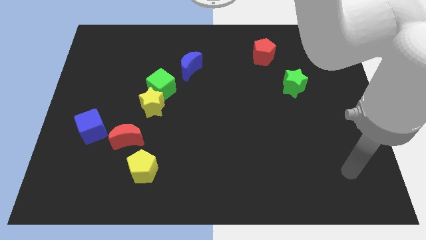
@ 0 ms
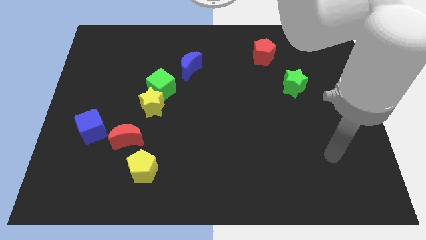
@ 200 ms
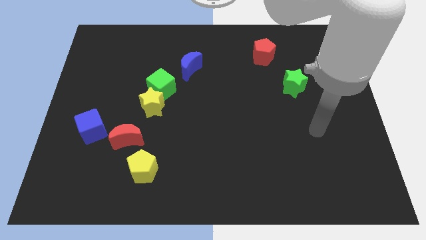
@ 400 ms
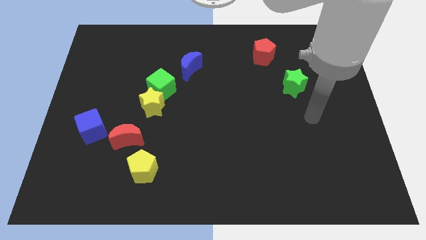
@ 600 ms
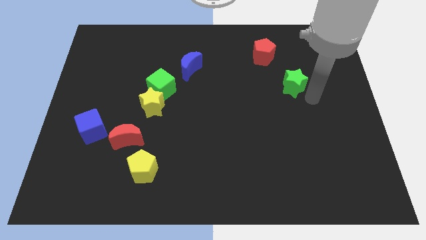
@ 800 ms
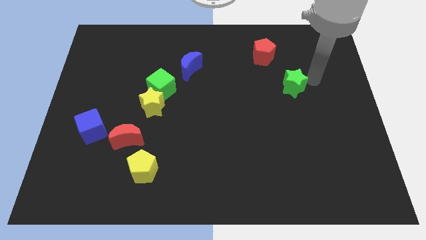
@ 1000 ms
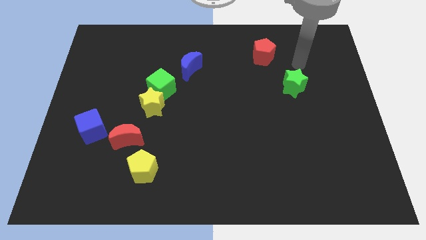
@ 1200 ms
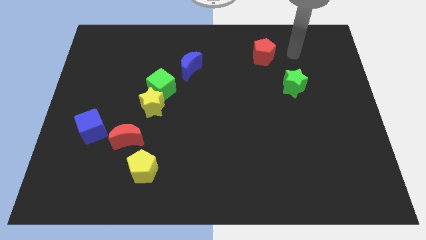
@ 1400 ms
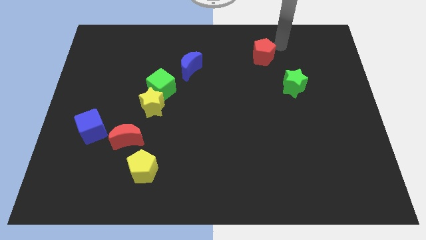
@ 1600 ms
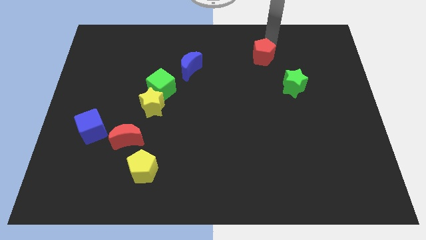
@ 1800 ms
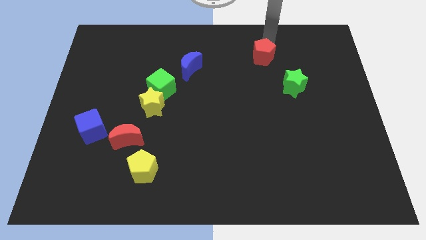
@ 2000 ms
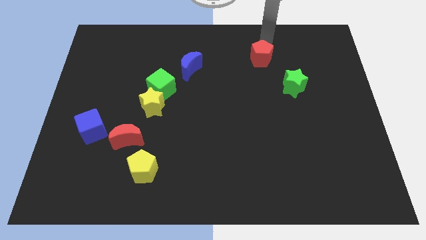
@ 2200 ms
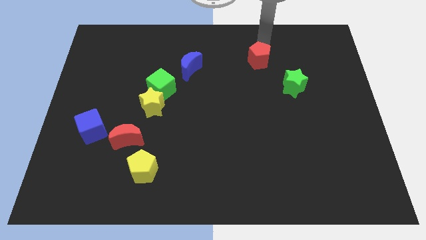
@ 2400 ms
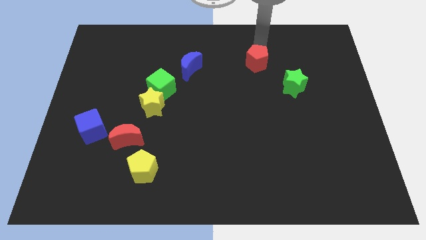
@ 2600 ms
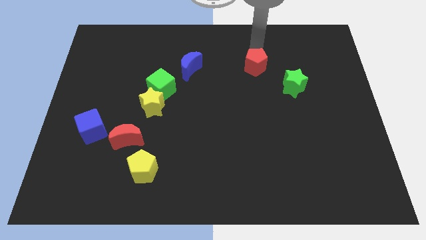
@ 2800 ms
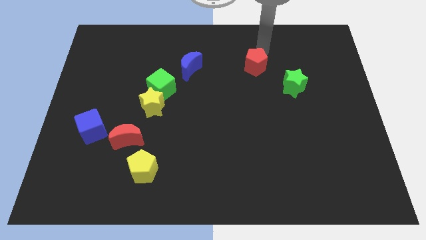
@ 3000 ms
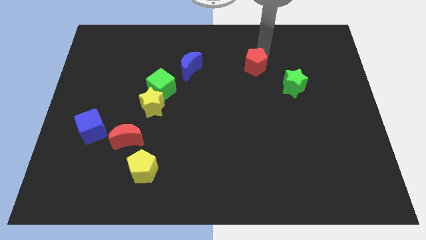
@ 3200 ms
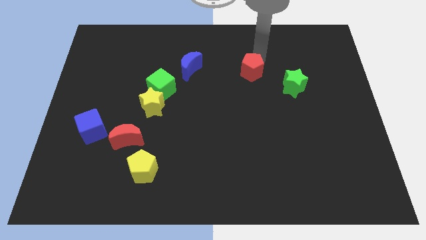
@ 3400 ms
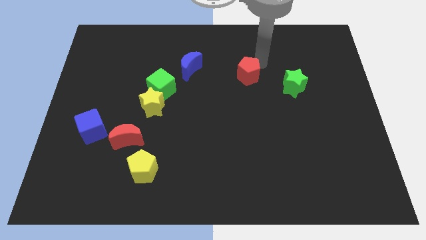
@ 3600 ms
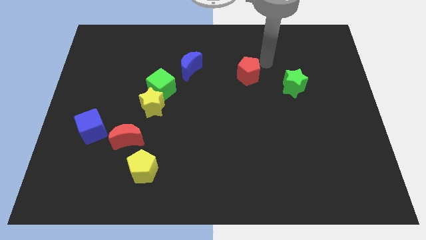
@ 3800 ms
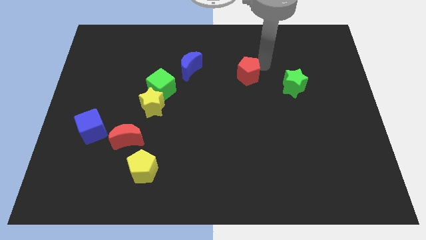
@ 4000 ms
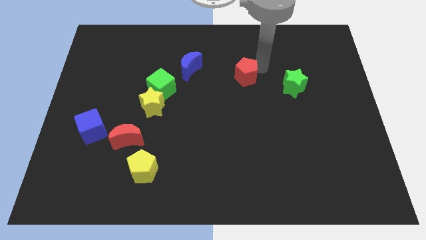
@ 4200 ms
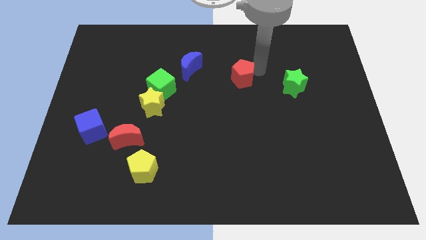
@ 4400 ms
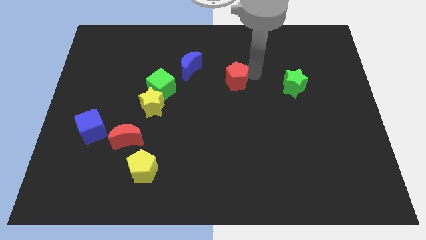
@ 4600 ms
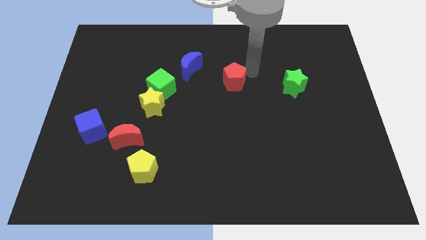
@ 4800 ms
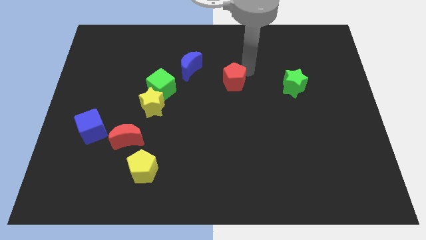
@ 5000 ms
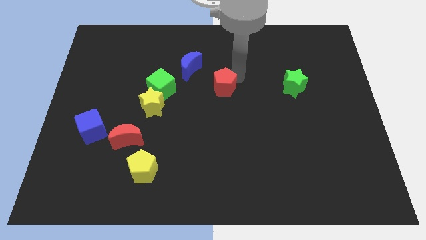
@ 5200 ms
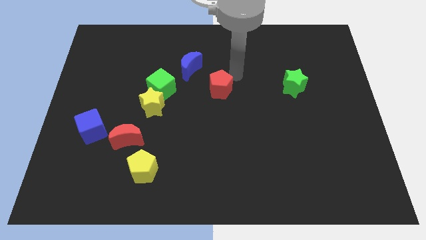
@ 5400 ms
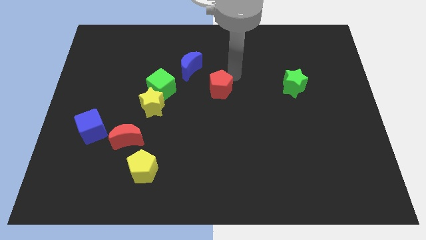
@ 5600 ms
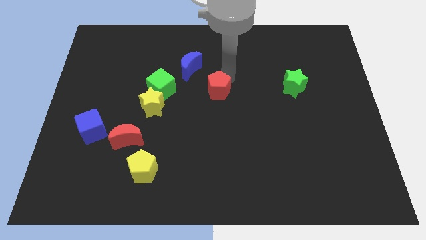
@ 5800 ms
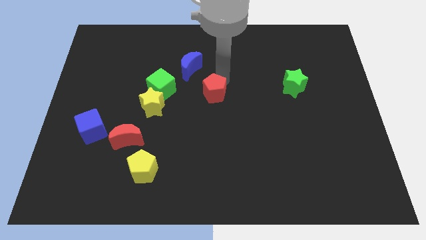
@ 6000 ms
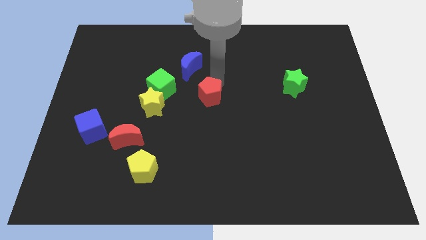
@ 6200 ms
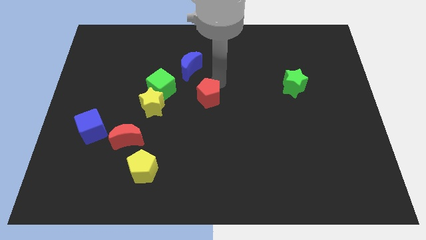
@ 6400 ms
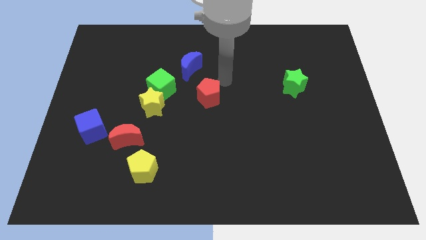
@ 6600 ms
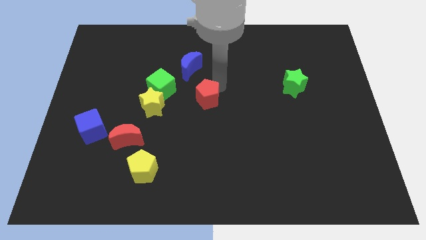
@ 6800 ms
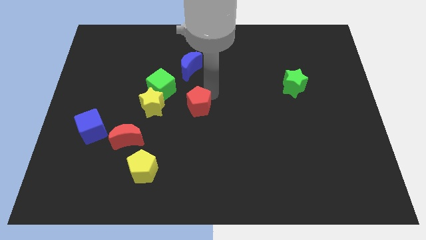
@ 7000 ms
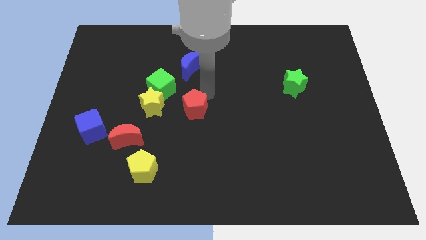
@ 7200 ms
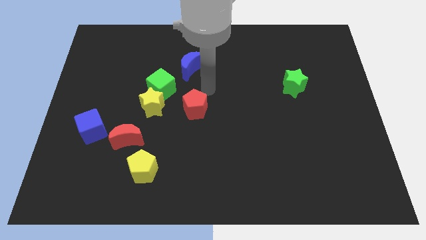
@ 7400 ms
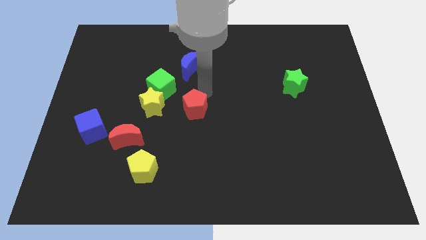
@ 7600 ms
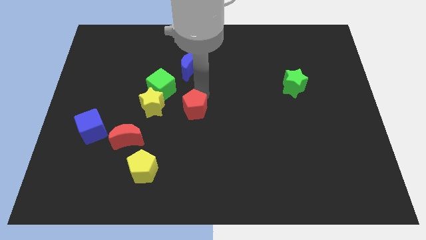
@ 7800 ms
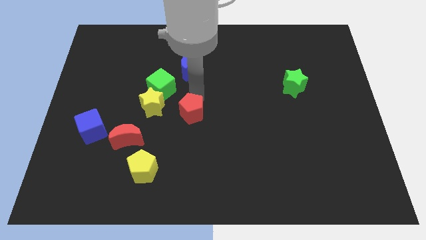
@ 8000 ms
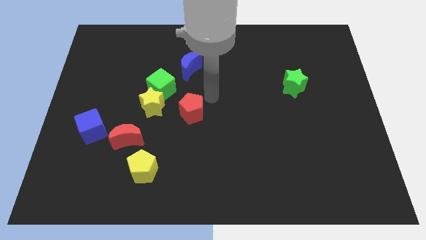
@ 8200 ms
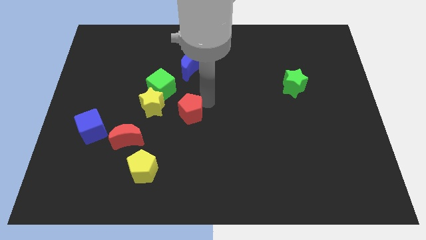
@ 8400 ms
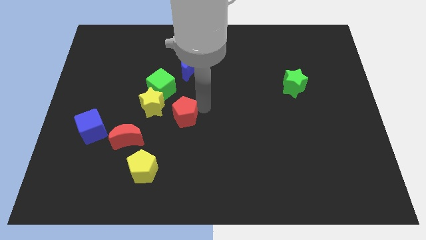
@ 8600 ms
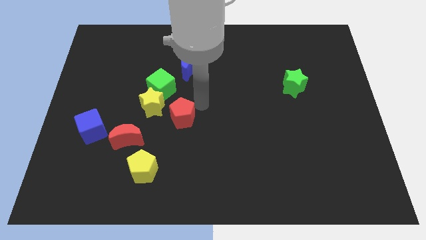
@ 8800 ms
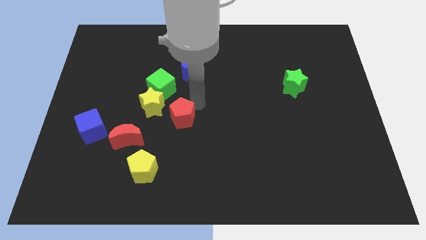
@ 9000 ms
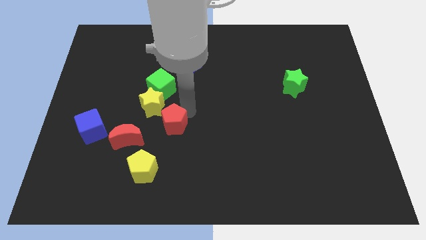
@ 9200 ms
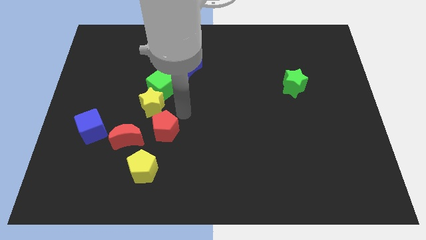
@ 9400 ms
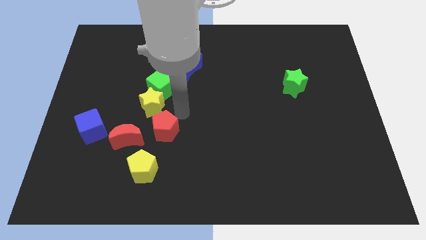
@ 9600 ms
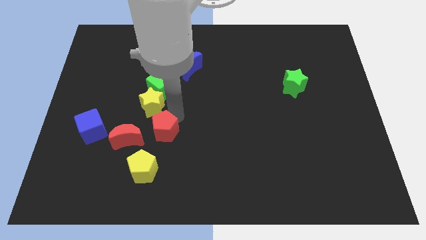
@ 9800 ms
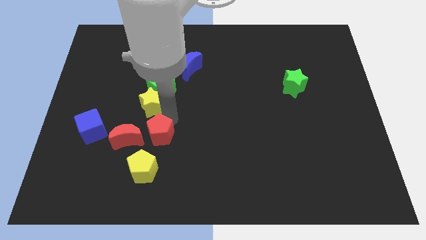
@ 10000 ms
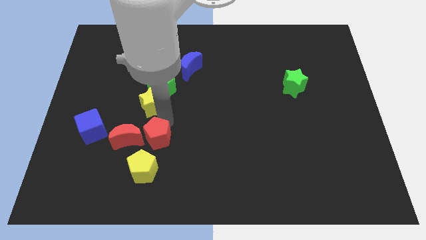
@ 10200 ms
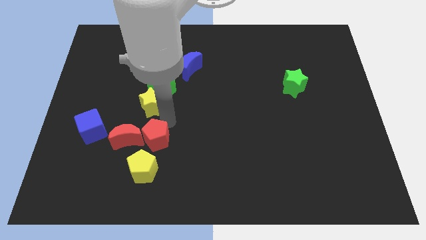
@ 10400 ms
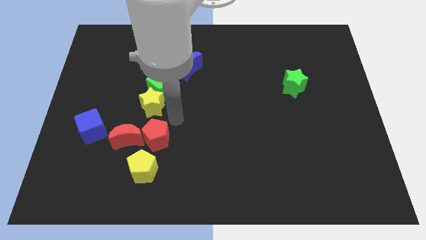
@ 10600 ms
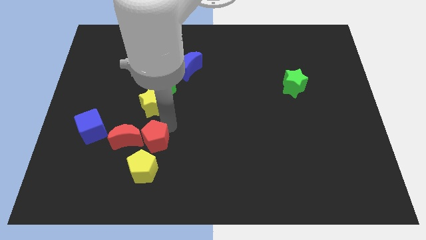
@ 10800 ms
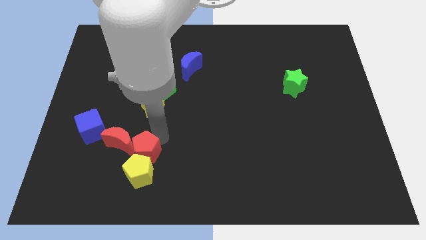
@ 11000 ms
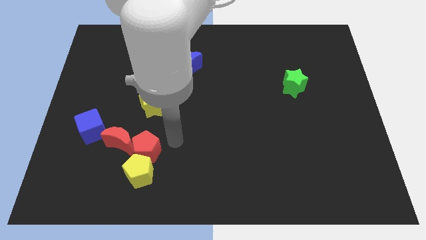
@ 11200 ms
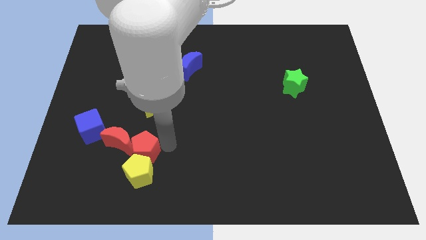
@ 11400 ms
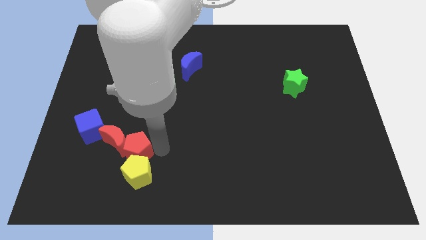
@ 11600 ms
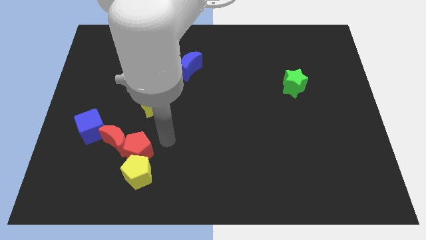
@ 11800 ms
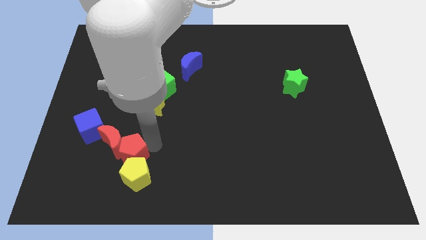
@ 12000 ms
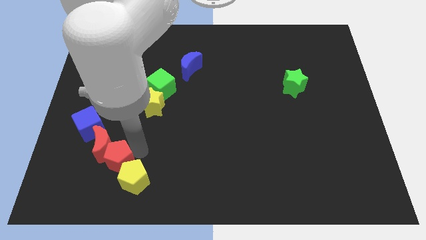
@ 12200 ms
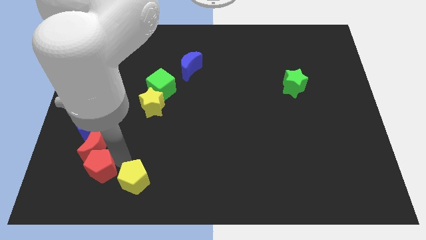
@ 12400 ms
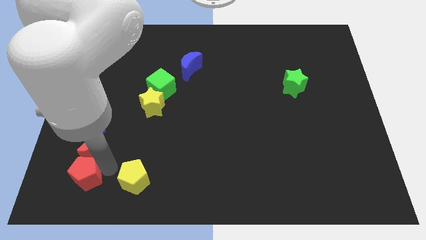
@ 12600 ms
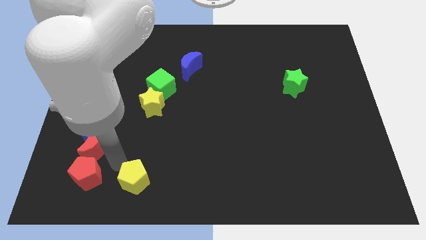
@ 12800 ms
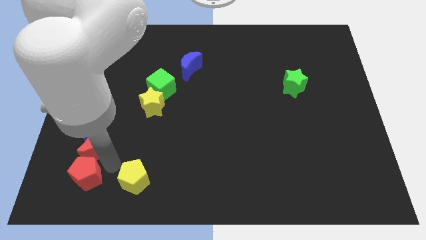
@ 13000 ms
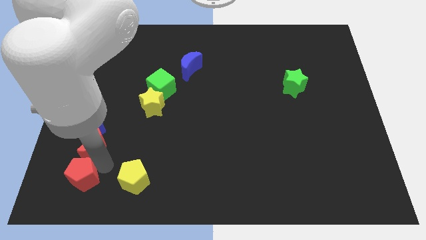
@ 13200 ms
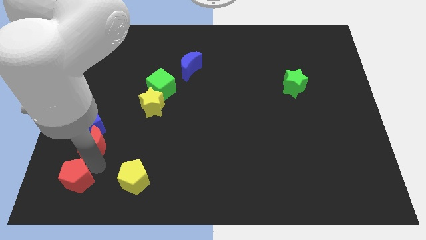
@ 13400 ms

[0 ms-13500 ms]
put the red pentagon to the bottom left
